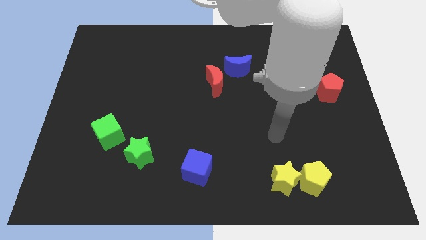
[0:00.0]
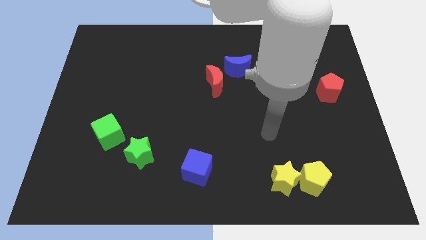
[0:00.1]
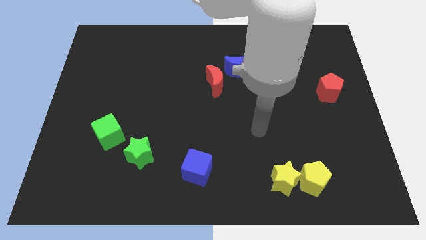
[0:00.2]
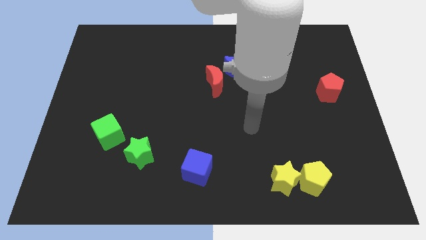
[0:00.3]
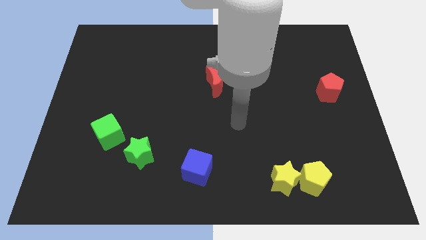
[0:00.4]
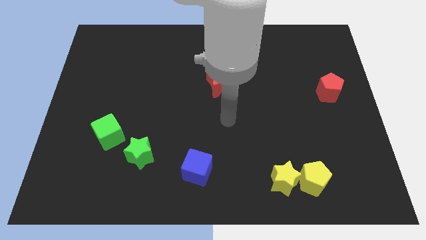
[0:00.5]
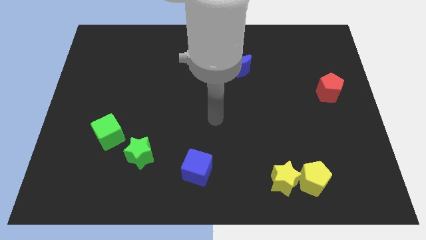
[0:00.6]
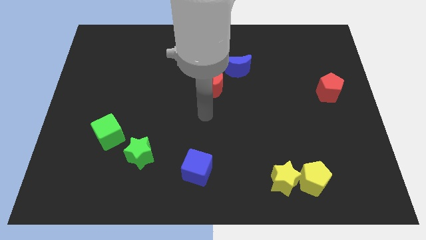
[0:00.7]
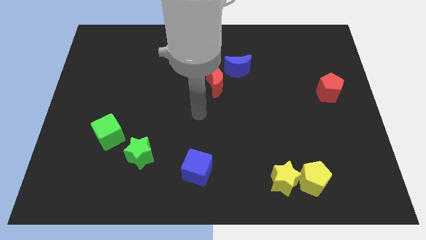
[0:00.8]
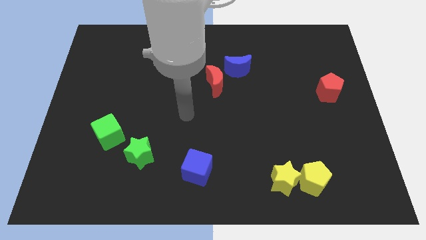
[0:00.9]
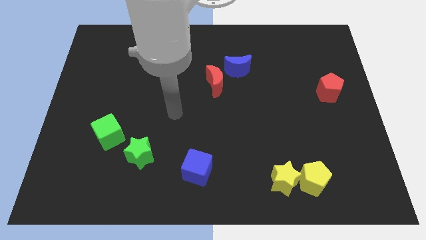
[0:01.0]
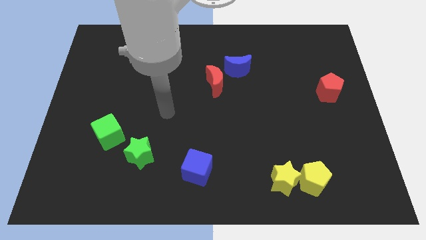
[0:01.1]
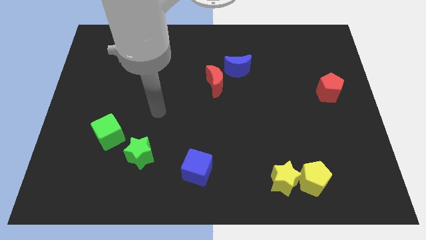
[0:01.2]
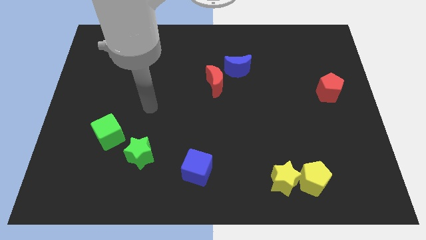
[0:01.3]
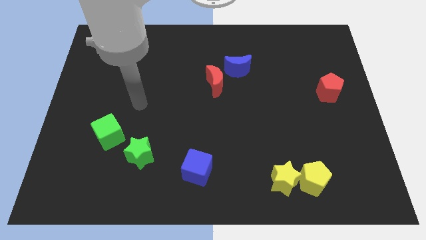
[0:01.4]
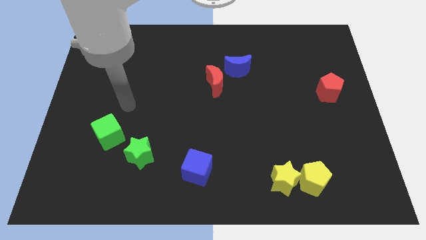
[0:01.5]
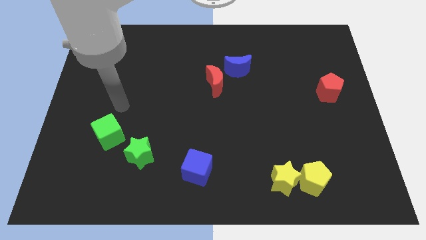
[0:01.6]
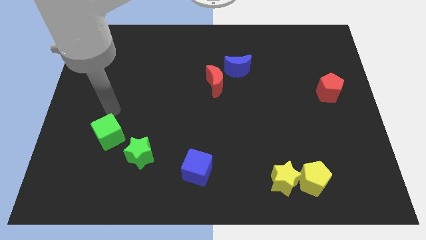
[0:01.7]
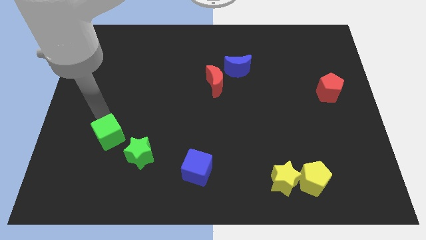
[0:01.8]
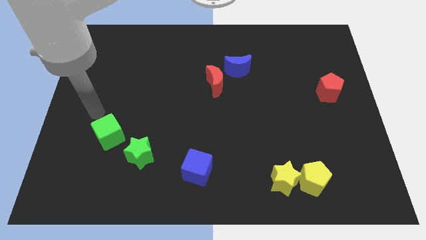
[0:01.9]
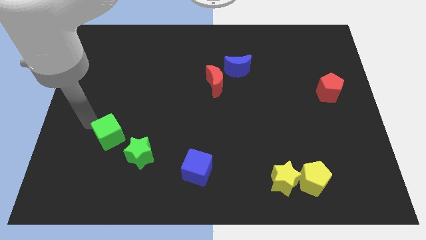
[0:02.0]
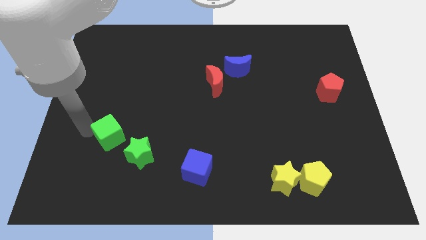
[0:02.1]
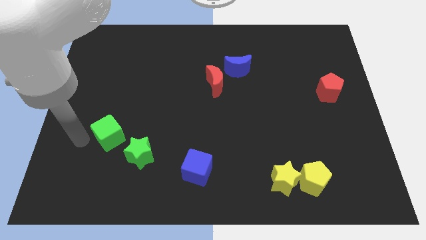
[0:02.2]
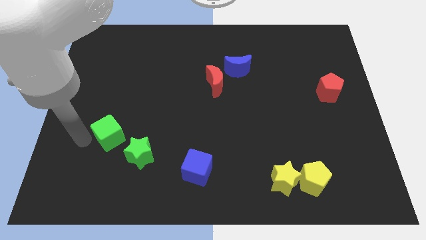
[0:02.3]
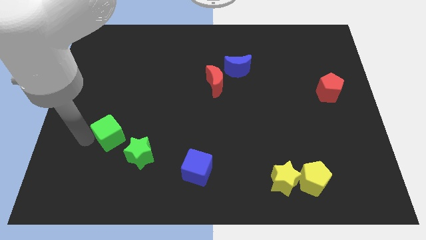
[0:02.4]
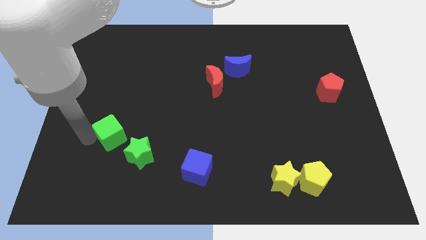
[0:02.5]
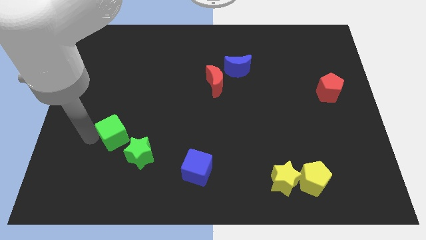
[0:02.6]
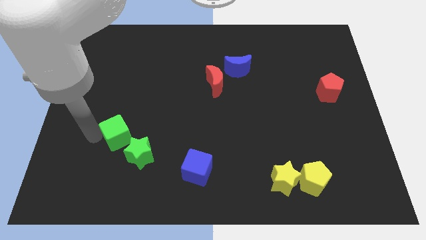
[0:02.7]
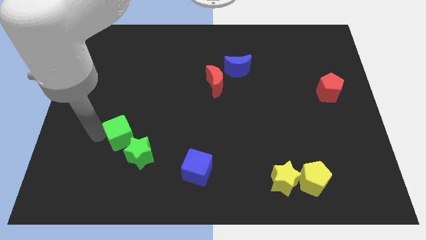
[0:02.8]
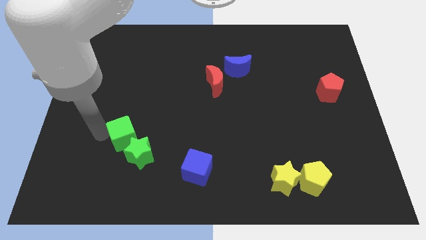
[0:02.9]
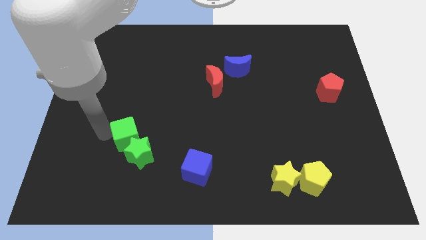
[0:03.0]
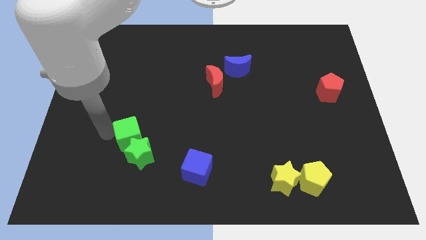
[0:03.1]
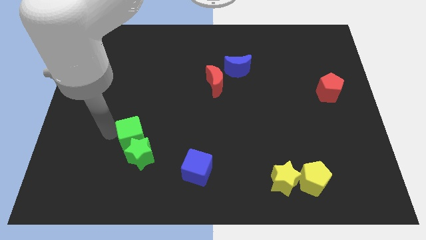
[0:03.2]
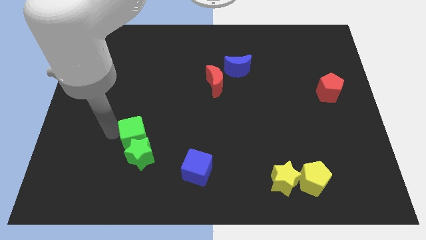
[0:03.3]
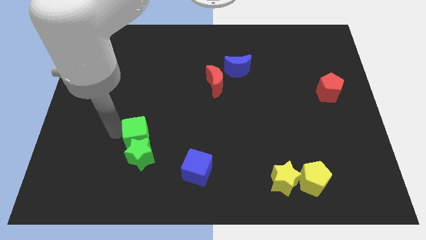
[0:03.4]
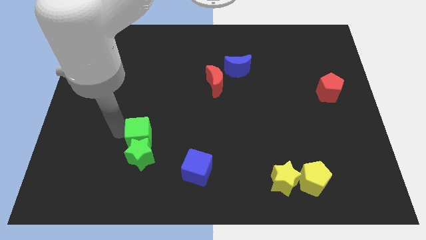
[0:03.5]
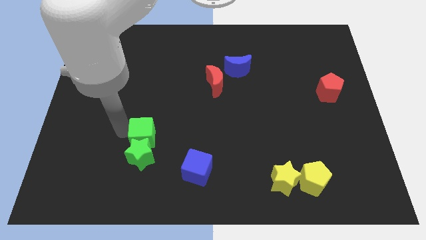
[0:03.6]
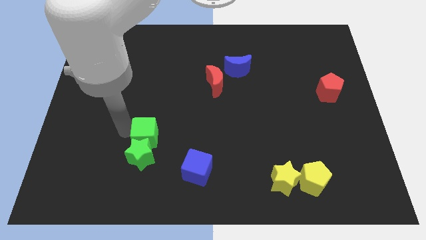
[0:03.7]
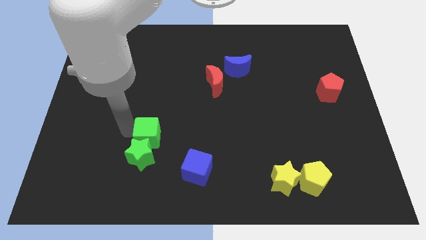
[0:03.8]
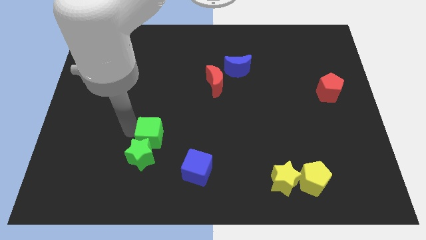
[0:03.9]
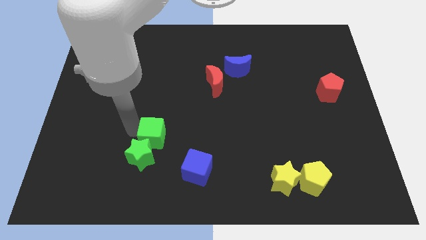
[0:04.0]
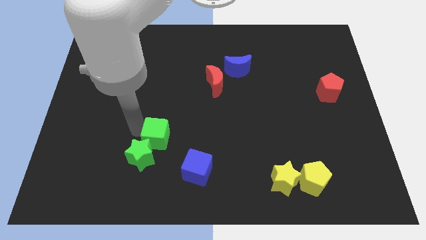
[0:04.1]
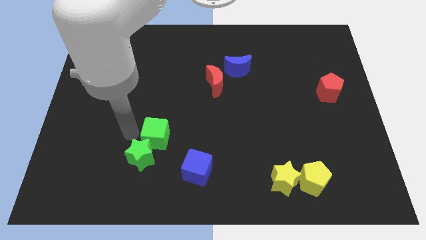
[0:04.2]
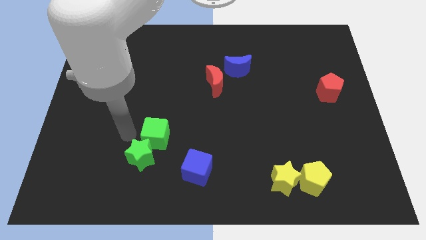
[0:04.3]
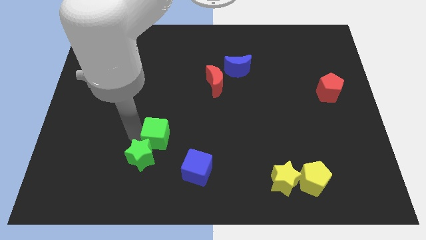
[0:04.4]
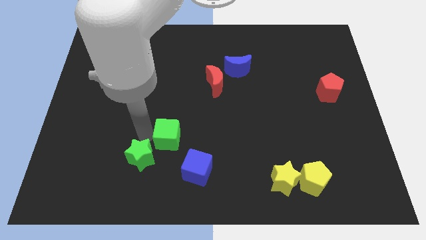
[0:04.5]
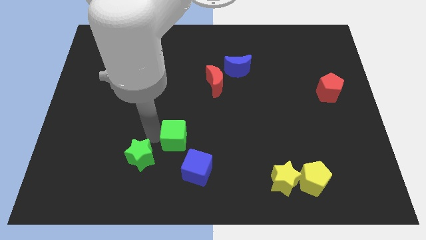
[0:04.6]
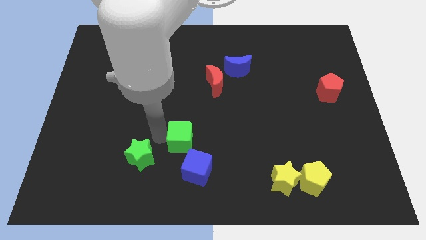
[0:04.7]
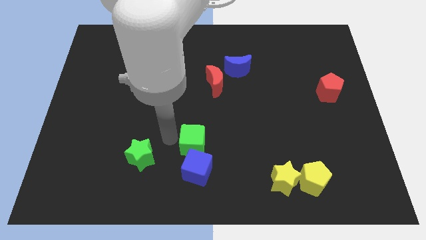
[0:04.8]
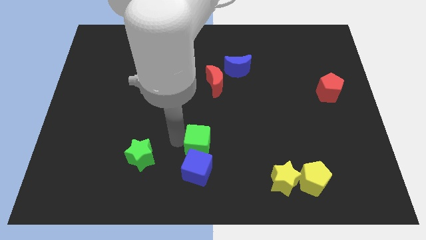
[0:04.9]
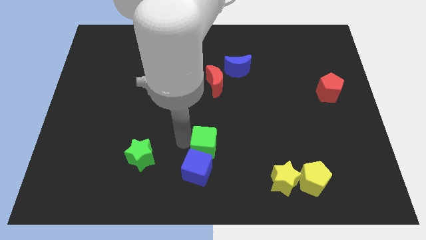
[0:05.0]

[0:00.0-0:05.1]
move the green cube to the right

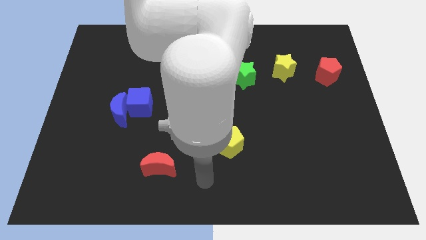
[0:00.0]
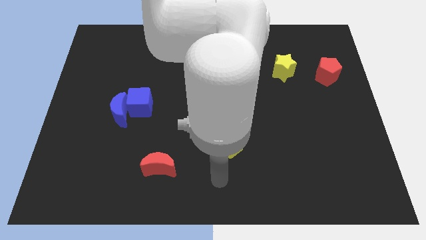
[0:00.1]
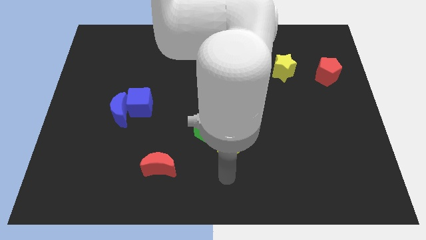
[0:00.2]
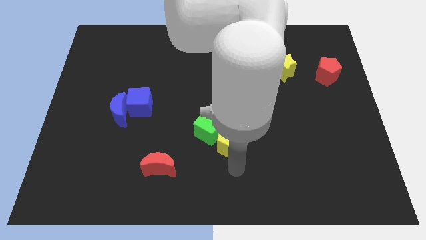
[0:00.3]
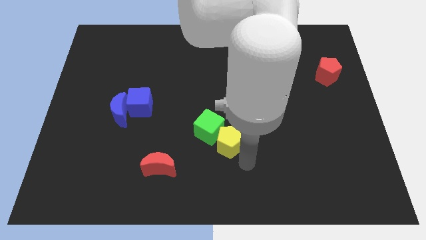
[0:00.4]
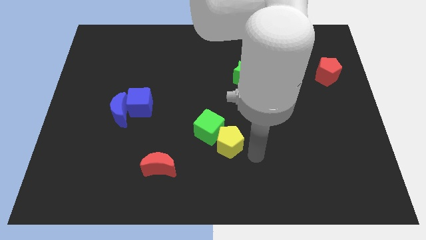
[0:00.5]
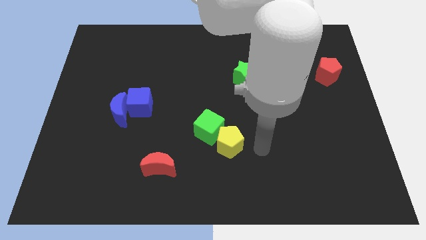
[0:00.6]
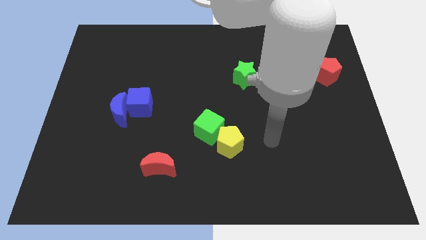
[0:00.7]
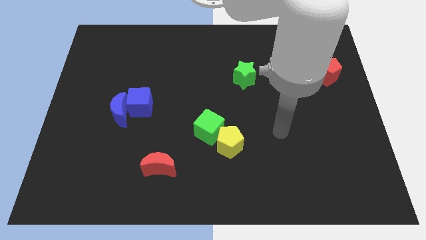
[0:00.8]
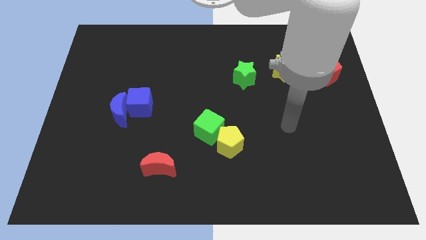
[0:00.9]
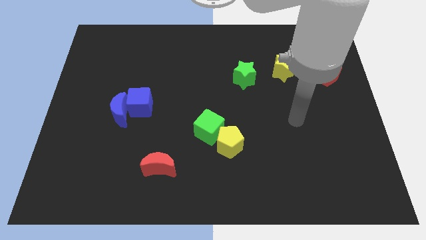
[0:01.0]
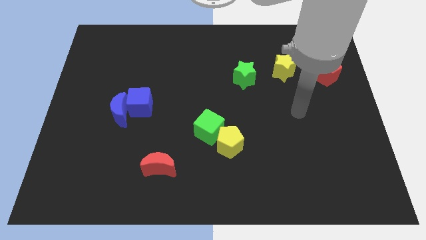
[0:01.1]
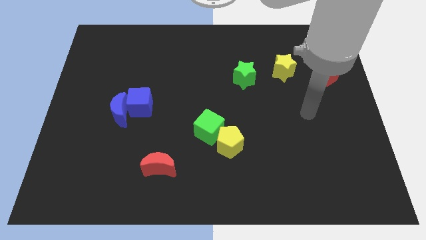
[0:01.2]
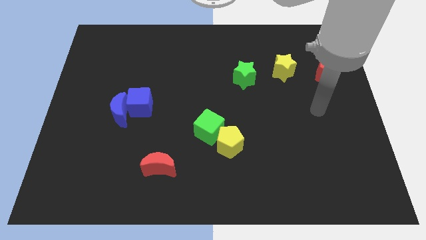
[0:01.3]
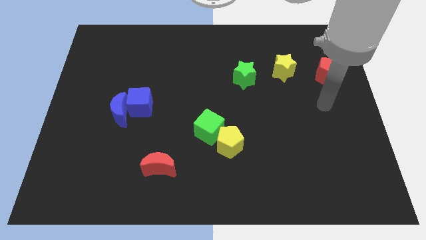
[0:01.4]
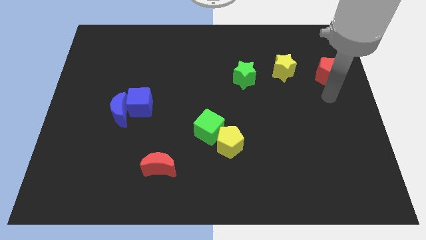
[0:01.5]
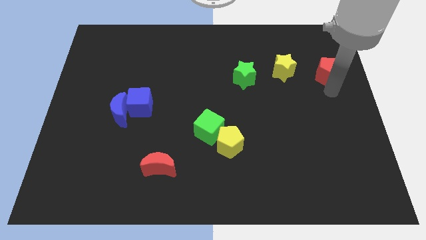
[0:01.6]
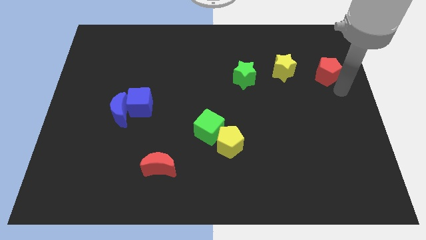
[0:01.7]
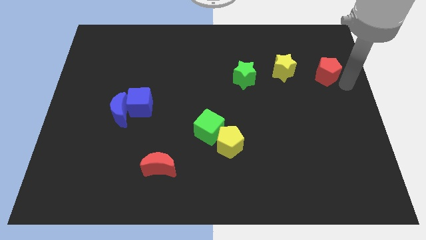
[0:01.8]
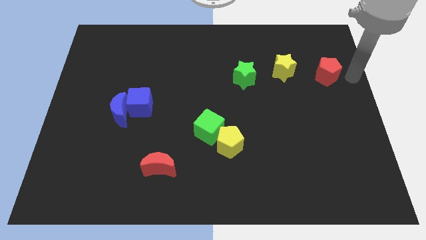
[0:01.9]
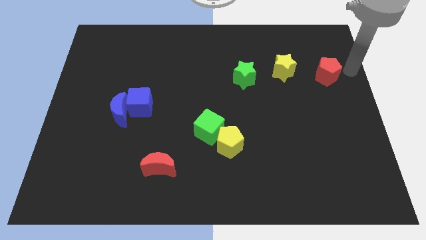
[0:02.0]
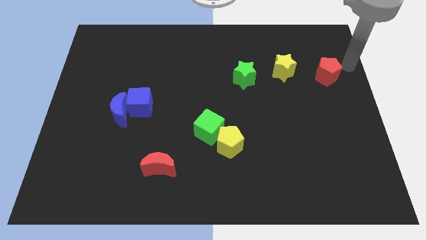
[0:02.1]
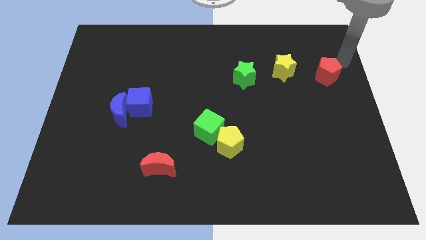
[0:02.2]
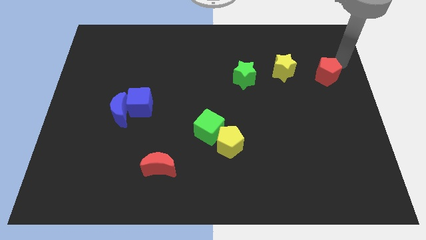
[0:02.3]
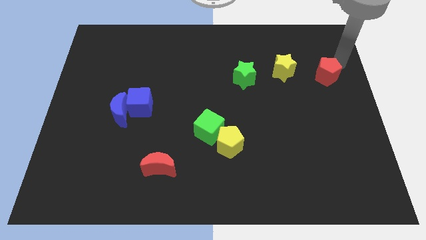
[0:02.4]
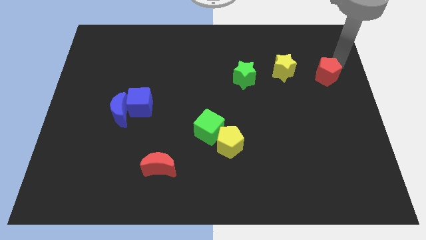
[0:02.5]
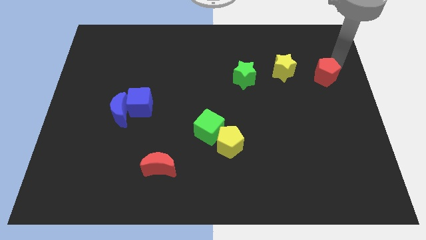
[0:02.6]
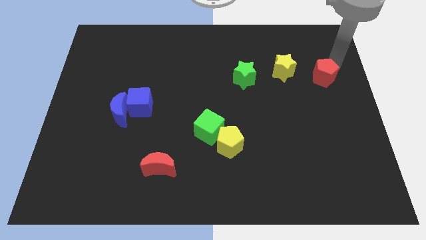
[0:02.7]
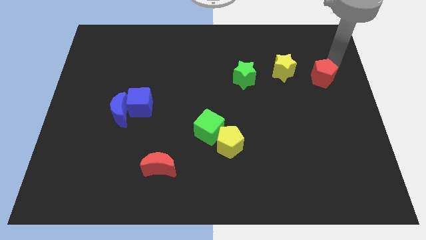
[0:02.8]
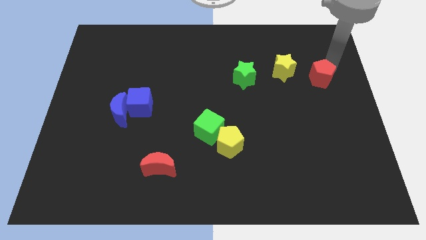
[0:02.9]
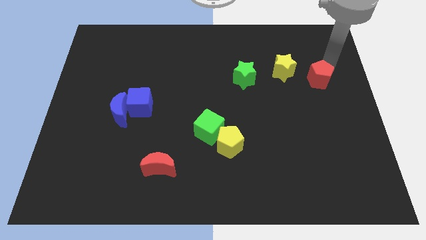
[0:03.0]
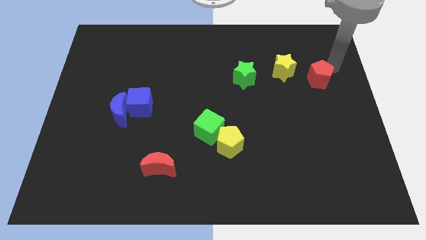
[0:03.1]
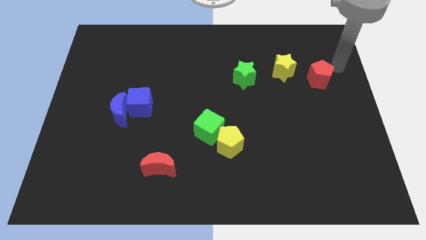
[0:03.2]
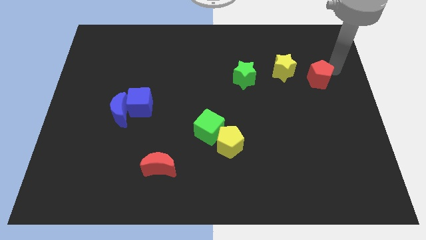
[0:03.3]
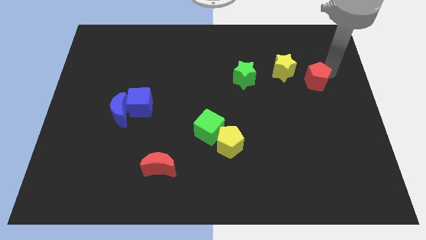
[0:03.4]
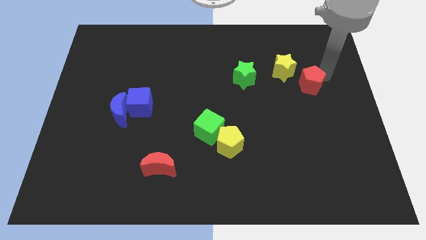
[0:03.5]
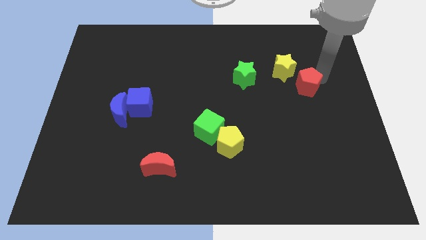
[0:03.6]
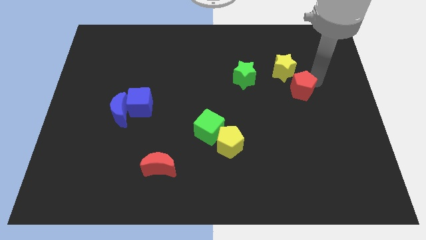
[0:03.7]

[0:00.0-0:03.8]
slightly slide the red pentagon downwards and left diagonally
